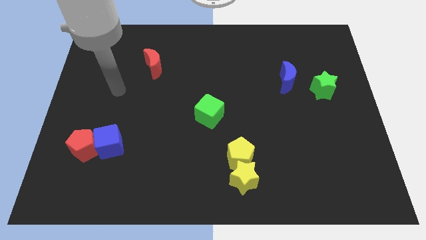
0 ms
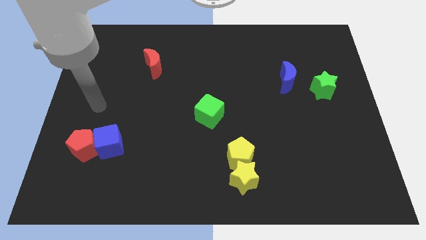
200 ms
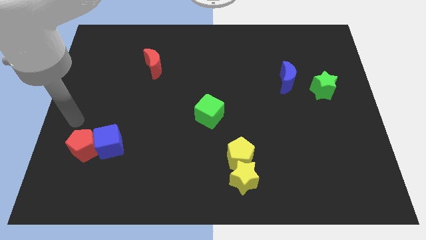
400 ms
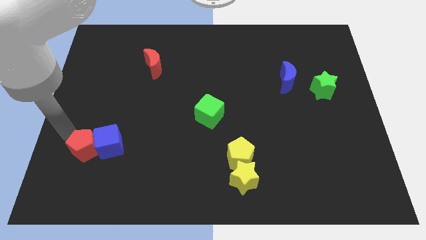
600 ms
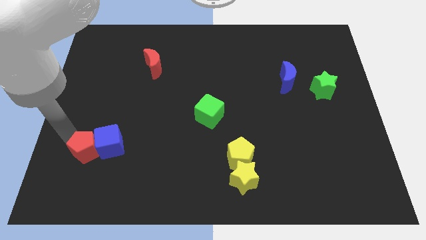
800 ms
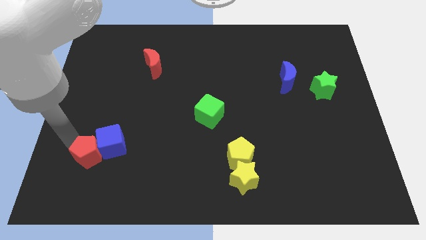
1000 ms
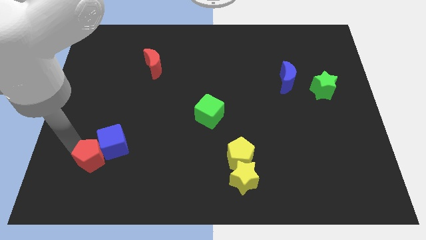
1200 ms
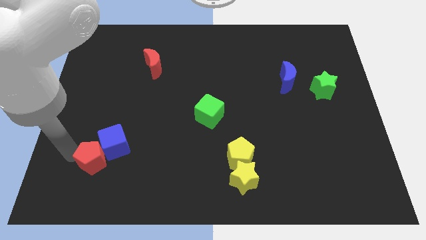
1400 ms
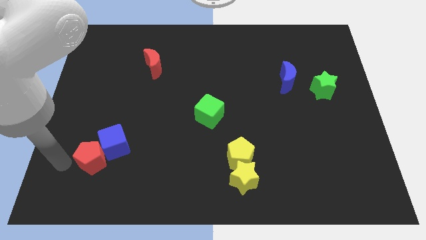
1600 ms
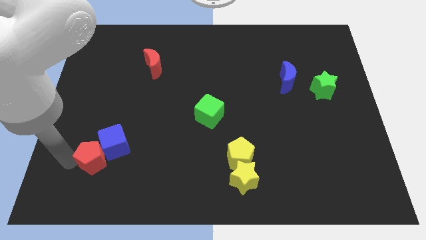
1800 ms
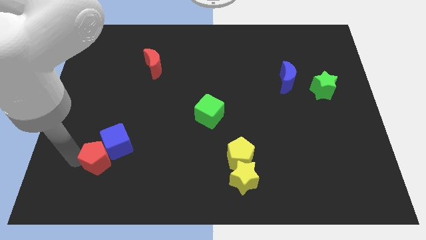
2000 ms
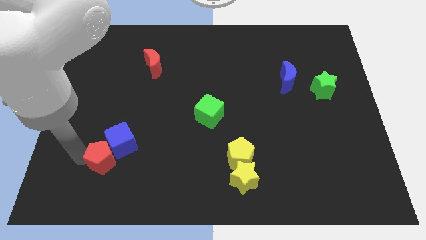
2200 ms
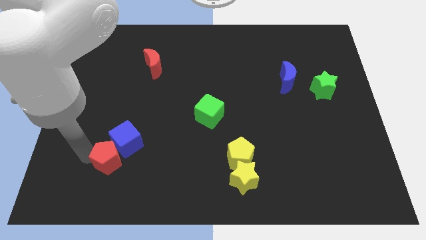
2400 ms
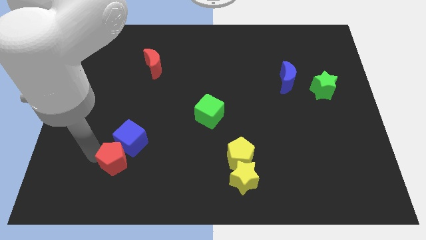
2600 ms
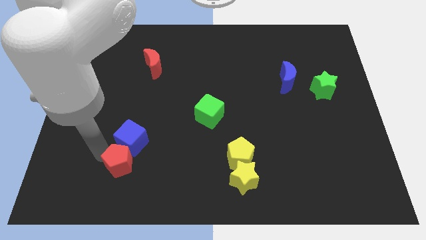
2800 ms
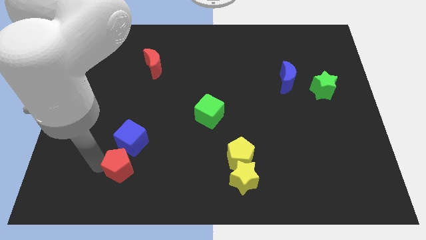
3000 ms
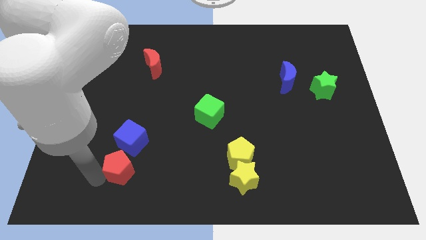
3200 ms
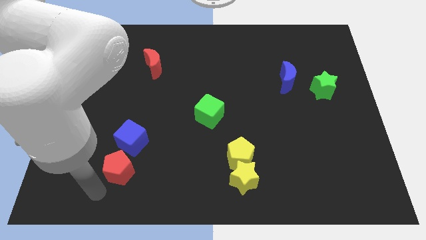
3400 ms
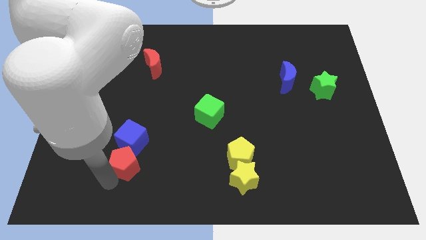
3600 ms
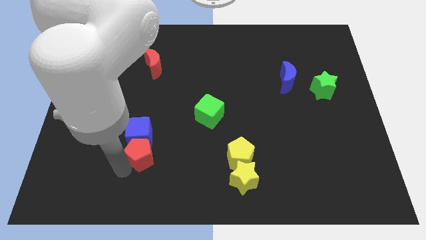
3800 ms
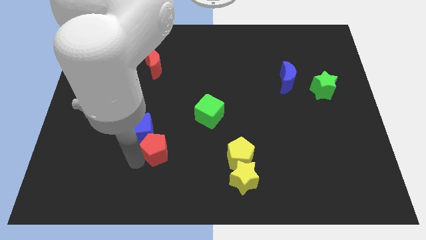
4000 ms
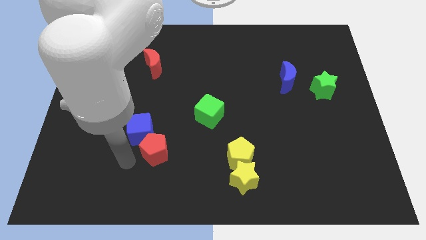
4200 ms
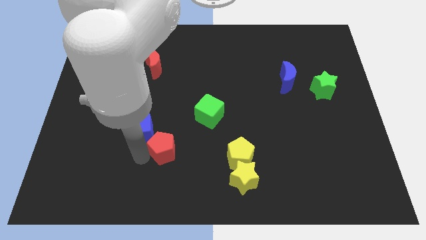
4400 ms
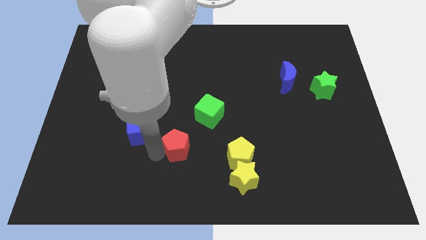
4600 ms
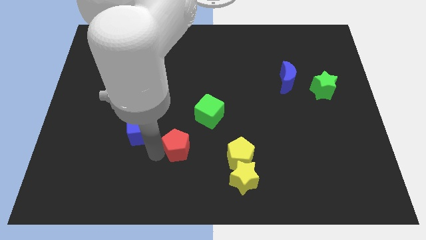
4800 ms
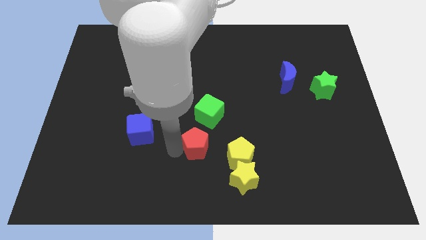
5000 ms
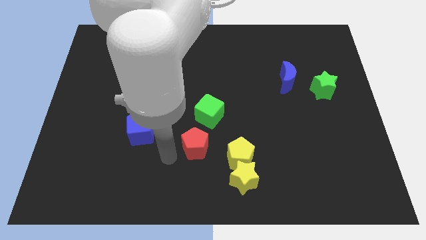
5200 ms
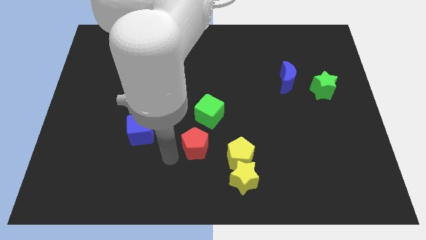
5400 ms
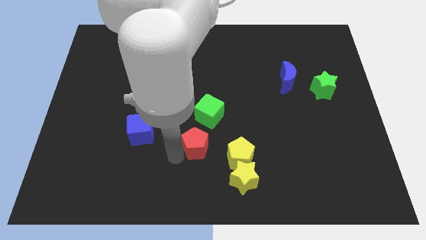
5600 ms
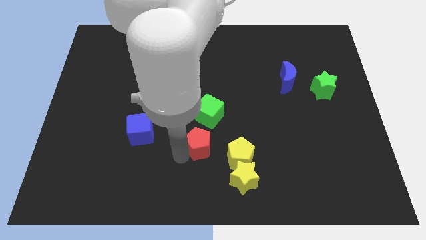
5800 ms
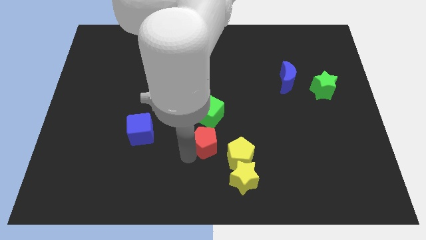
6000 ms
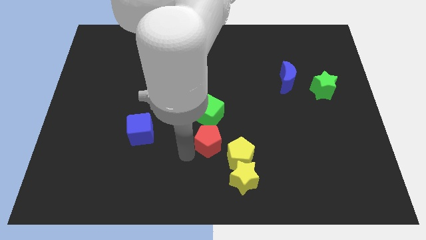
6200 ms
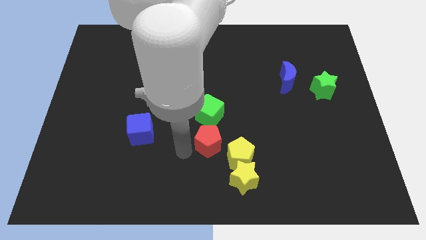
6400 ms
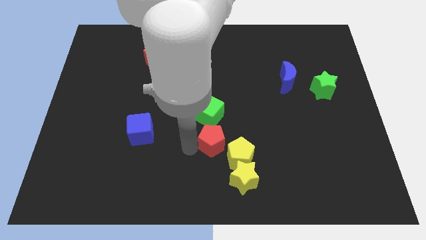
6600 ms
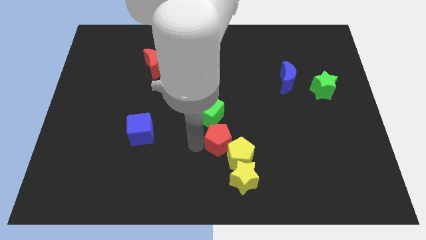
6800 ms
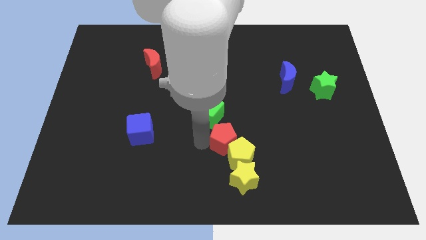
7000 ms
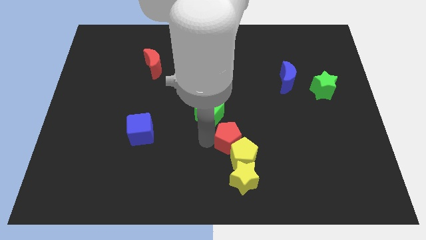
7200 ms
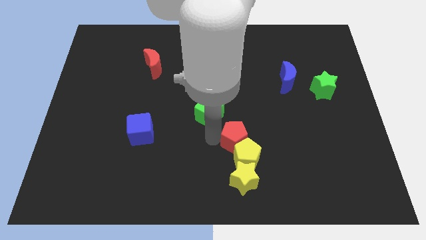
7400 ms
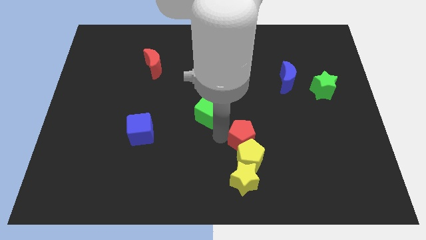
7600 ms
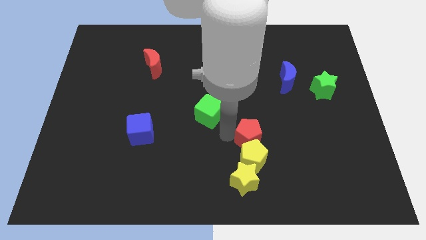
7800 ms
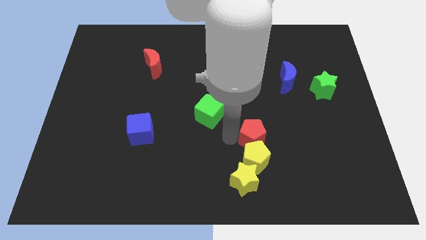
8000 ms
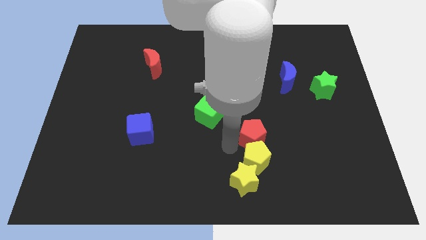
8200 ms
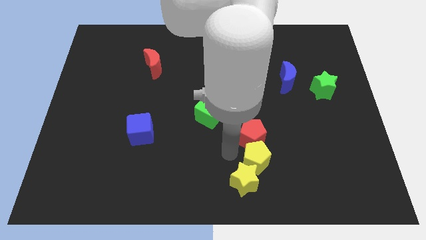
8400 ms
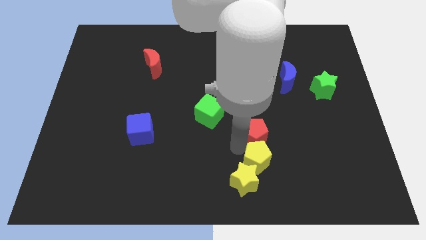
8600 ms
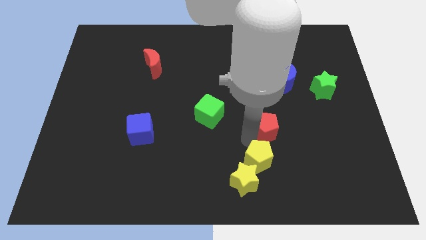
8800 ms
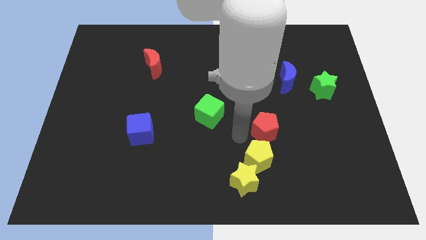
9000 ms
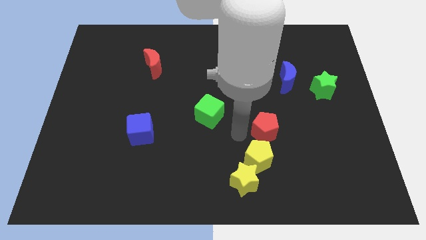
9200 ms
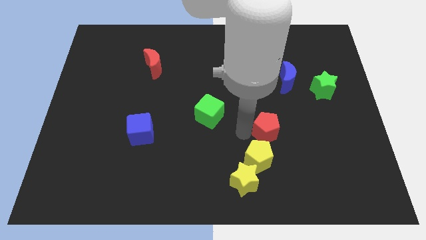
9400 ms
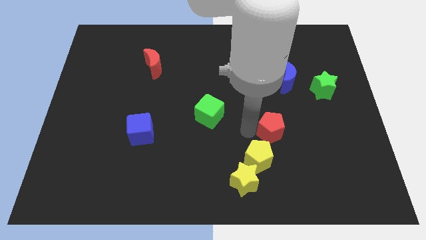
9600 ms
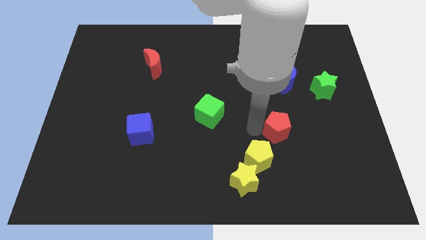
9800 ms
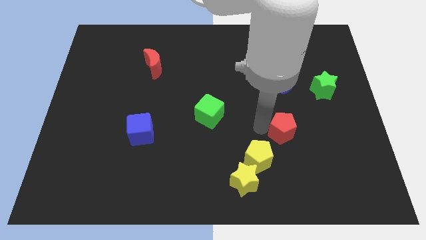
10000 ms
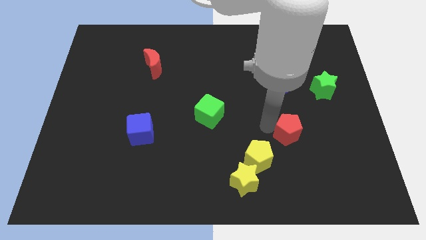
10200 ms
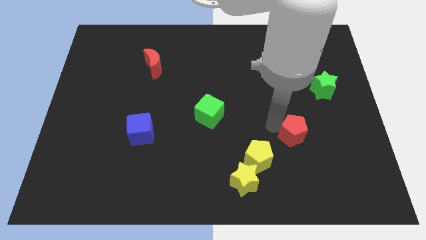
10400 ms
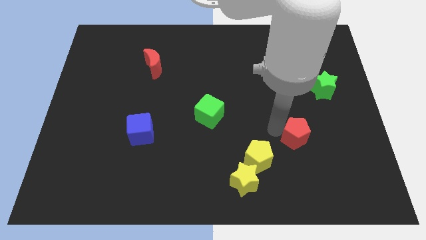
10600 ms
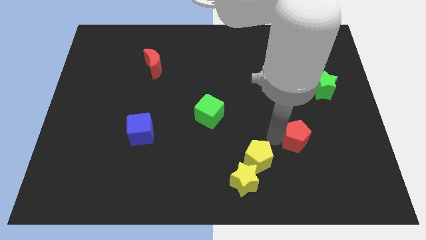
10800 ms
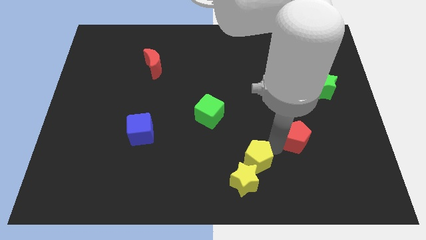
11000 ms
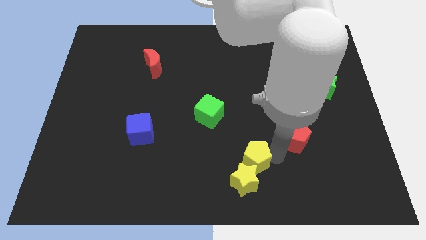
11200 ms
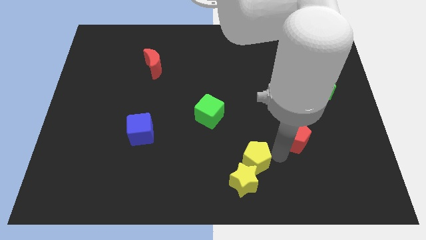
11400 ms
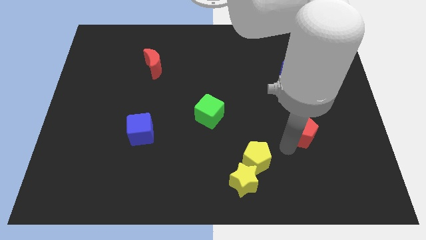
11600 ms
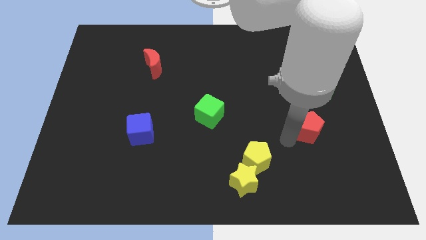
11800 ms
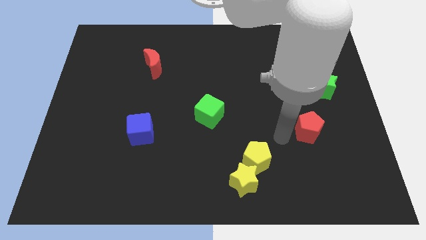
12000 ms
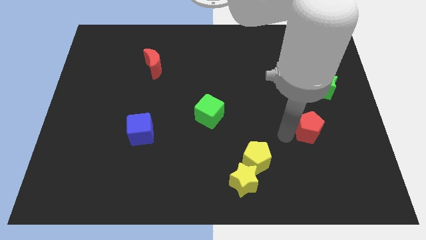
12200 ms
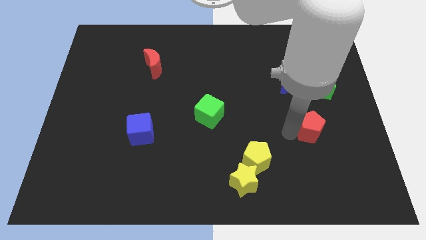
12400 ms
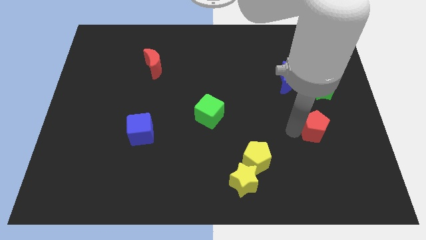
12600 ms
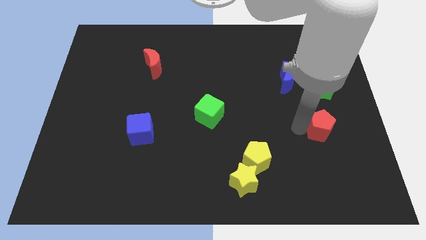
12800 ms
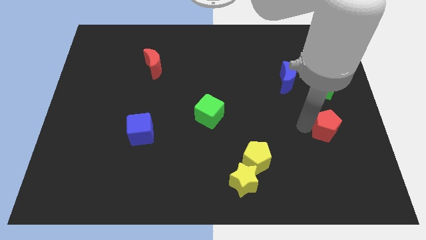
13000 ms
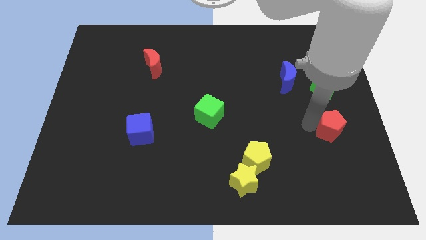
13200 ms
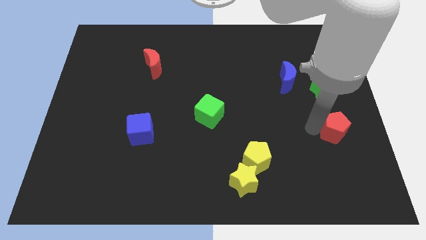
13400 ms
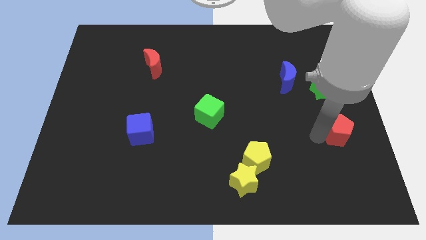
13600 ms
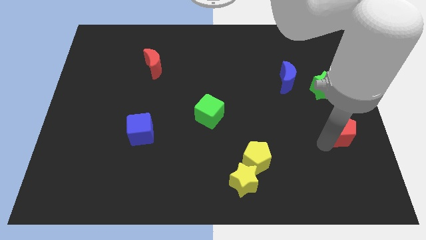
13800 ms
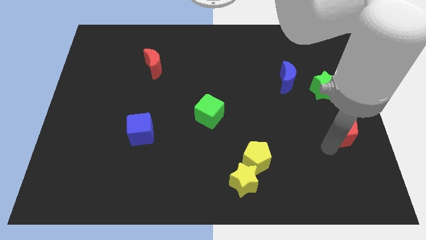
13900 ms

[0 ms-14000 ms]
move the red pentagon to the right side

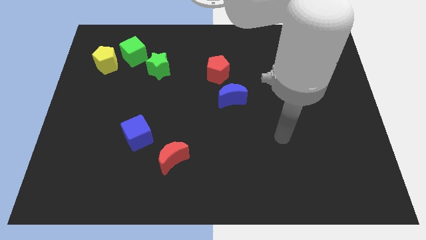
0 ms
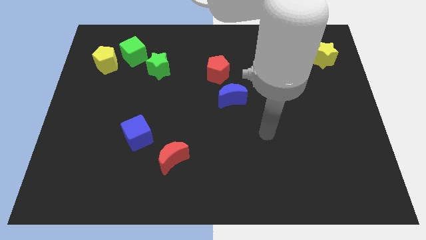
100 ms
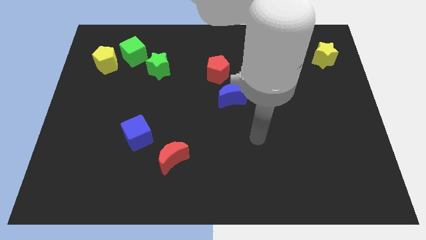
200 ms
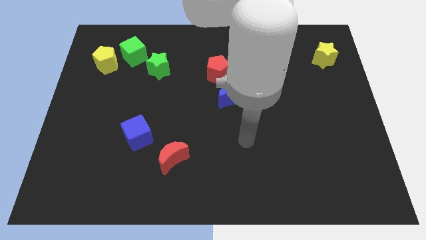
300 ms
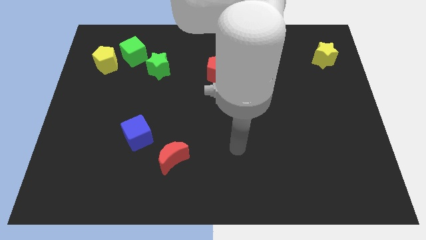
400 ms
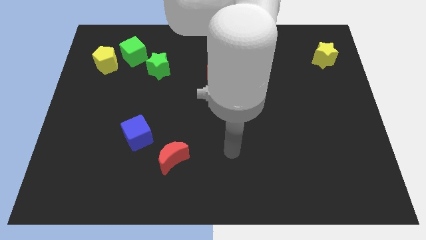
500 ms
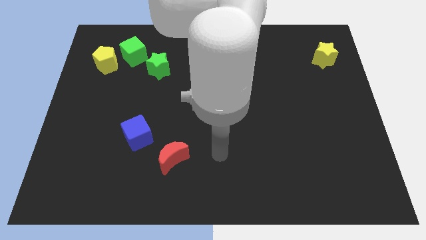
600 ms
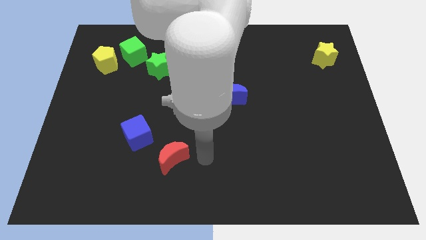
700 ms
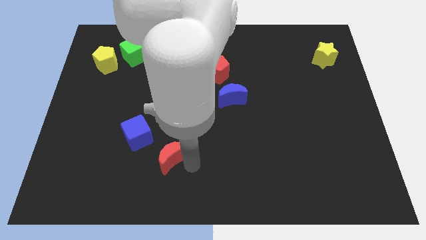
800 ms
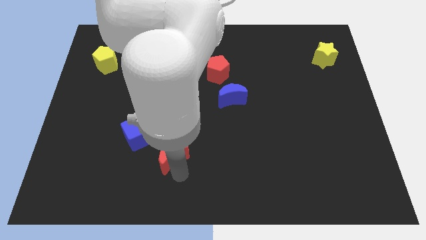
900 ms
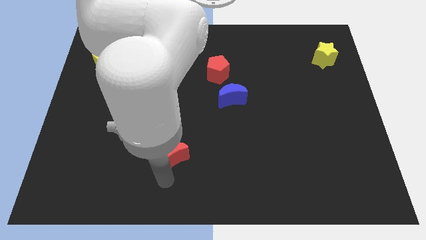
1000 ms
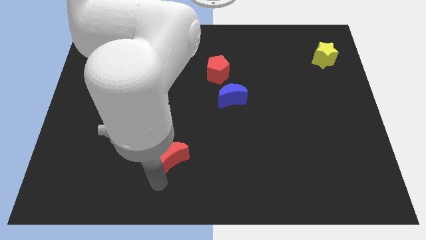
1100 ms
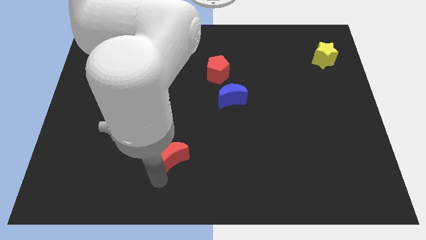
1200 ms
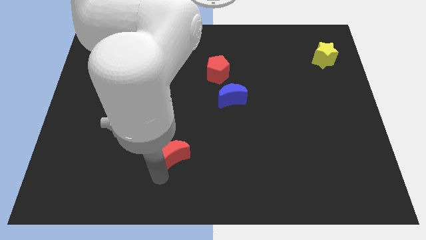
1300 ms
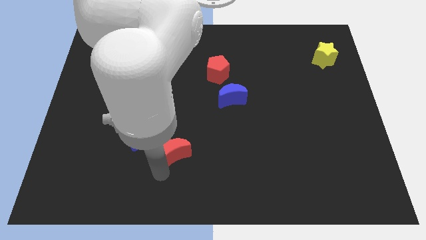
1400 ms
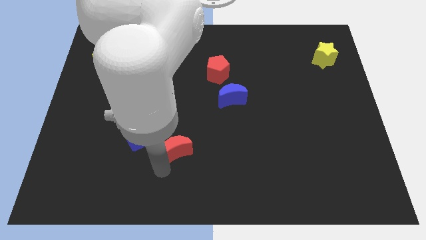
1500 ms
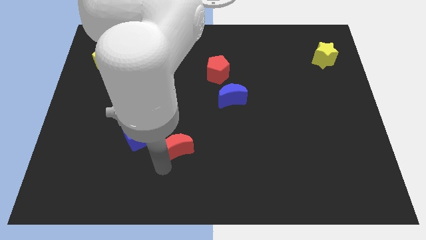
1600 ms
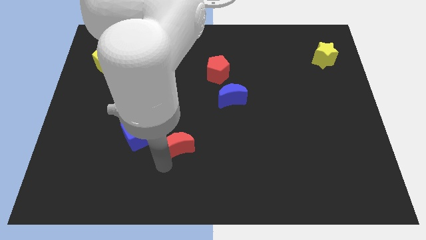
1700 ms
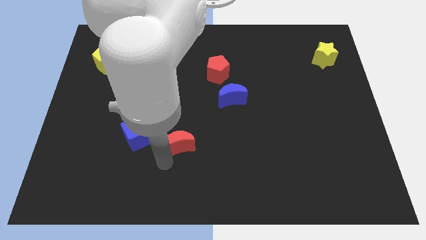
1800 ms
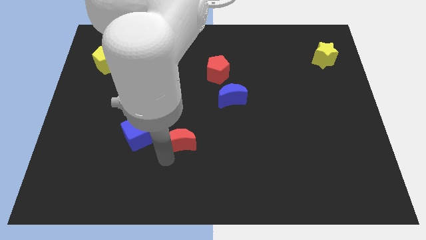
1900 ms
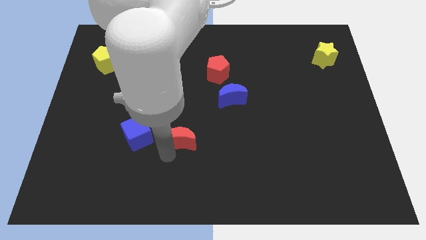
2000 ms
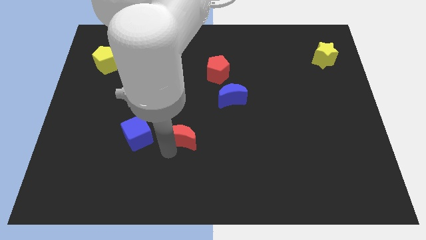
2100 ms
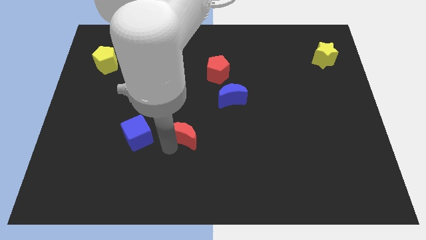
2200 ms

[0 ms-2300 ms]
slide the red moon to the center of the board
